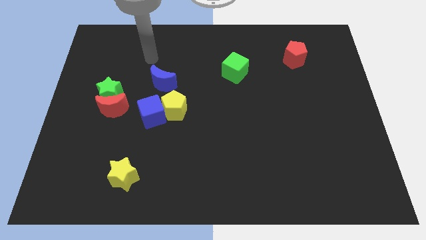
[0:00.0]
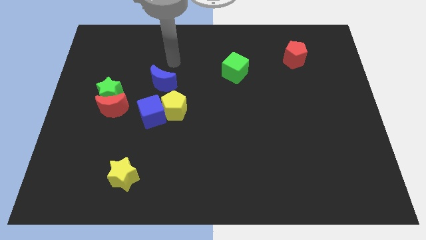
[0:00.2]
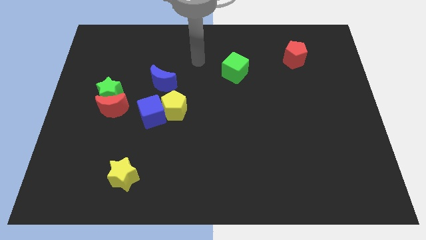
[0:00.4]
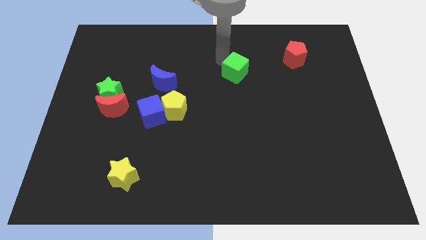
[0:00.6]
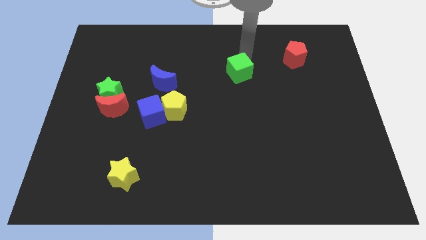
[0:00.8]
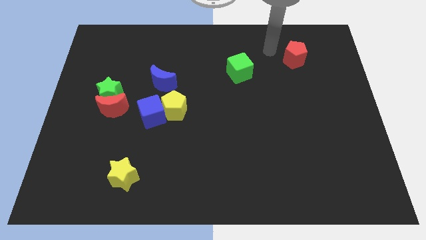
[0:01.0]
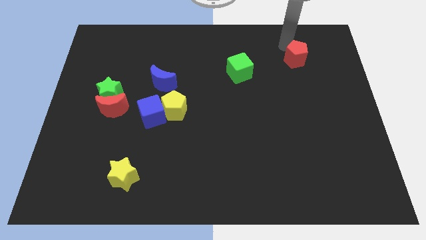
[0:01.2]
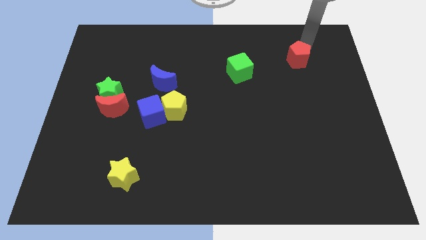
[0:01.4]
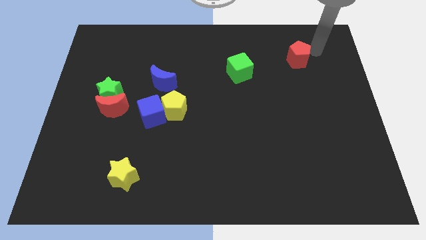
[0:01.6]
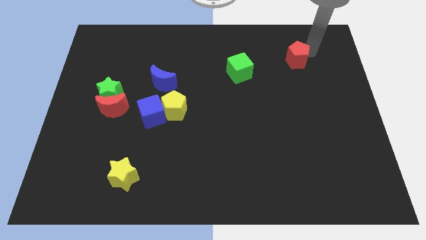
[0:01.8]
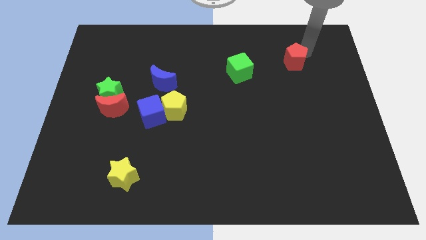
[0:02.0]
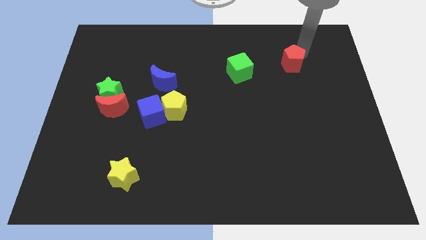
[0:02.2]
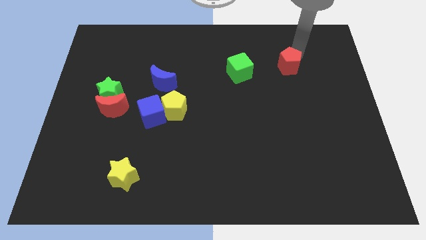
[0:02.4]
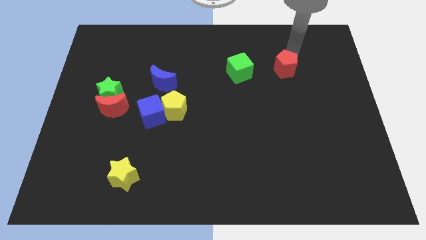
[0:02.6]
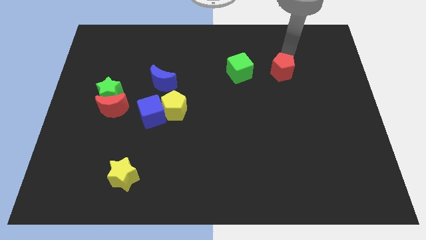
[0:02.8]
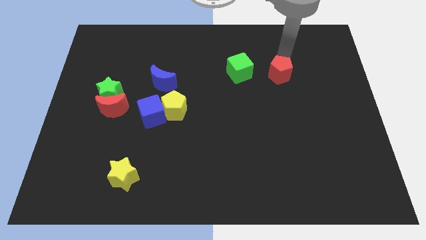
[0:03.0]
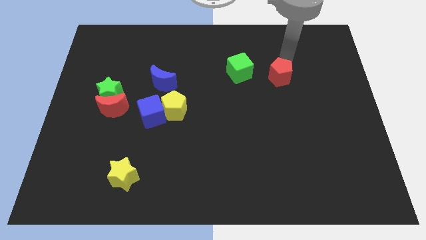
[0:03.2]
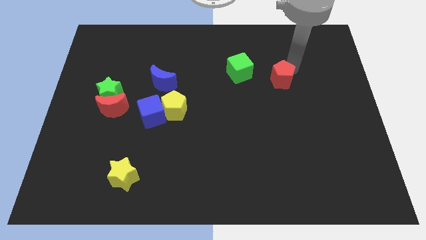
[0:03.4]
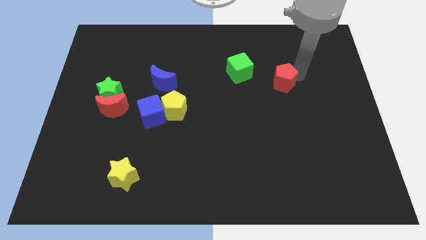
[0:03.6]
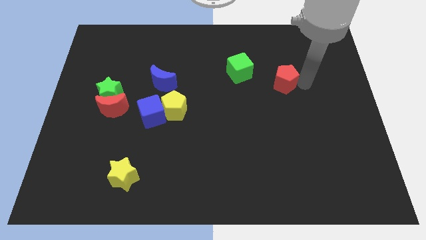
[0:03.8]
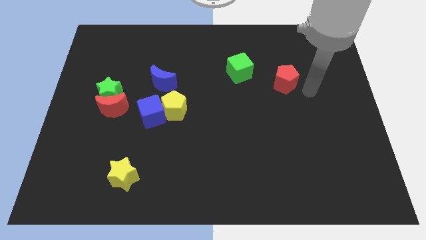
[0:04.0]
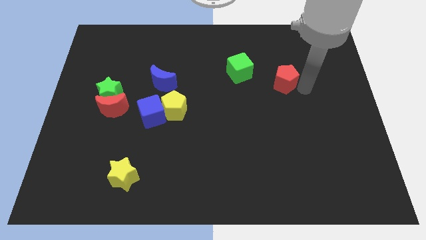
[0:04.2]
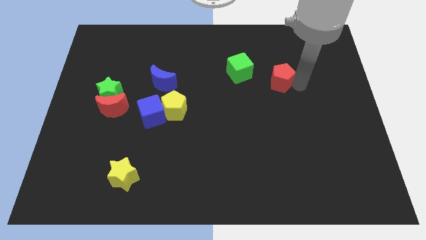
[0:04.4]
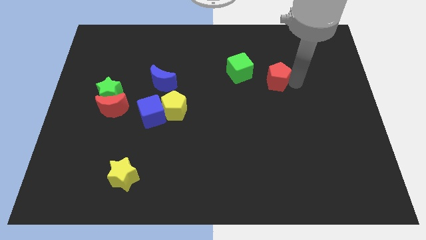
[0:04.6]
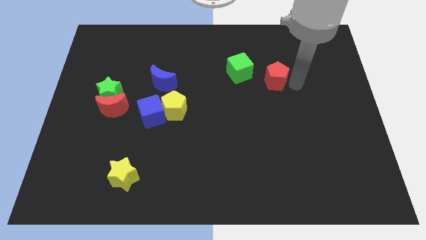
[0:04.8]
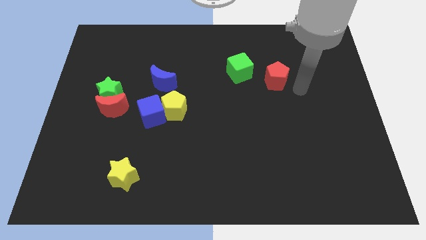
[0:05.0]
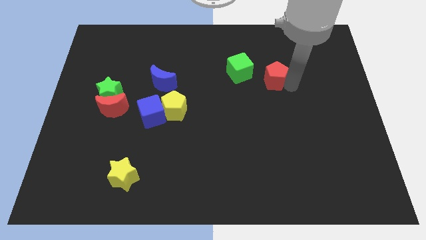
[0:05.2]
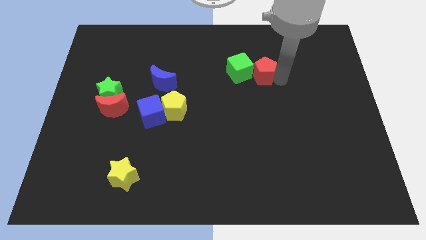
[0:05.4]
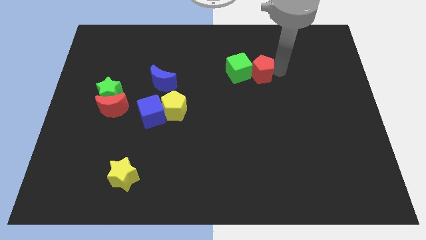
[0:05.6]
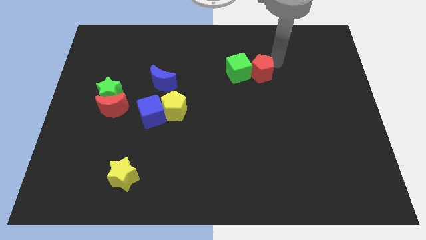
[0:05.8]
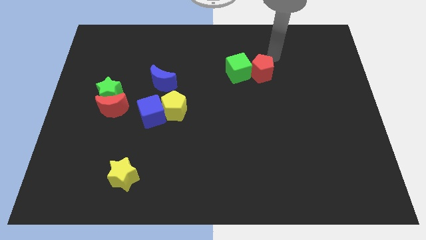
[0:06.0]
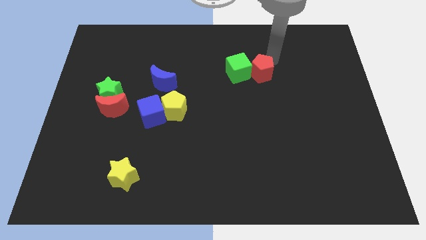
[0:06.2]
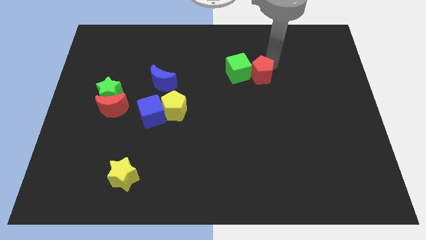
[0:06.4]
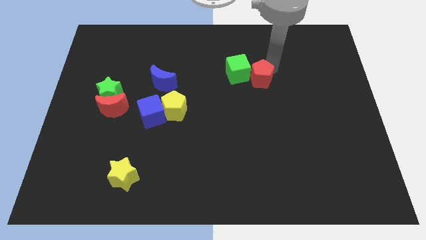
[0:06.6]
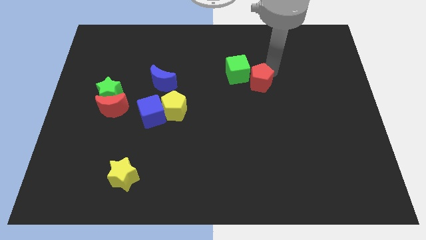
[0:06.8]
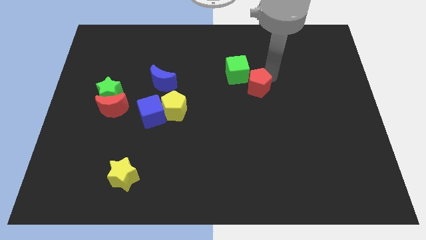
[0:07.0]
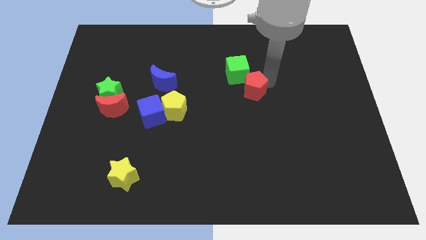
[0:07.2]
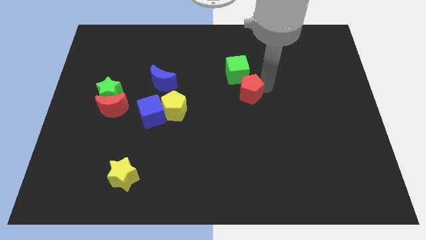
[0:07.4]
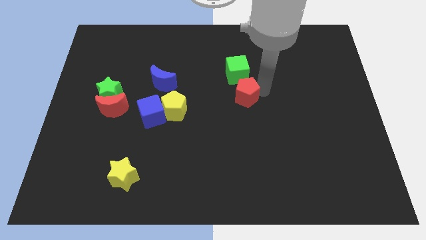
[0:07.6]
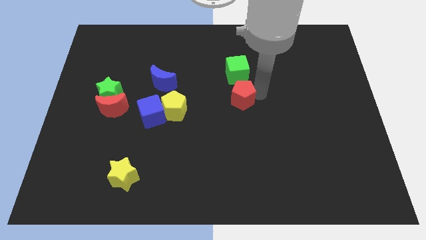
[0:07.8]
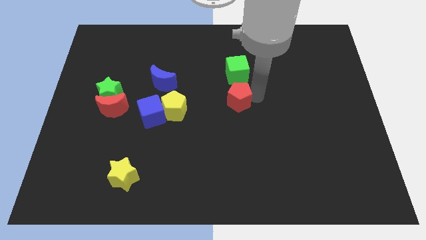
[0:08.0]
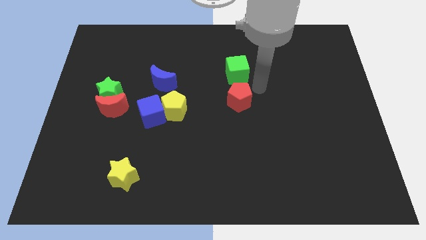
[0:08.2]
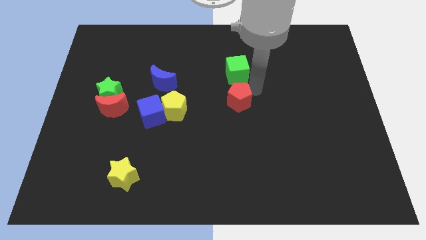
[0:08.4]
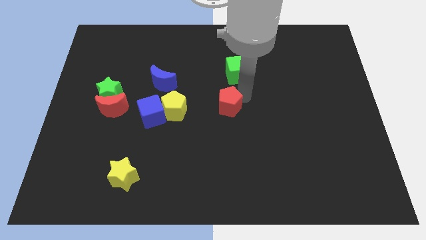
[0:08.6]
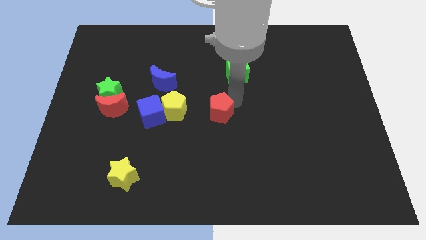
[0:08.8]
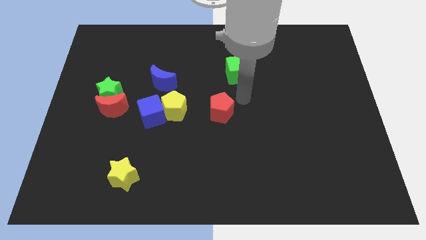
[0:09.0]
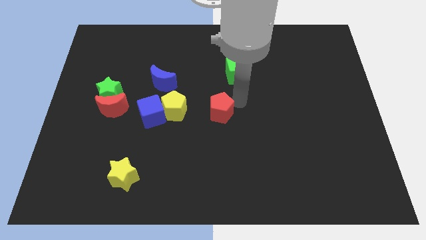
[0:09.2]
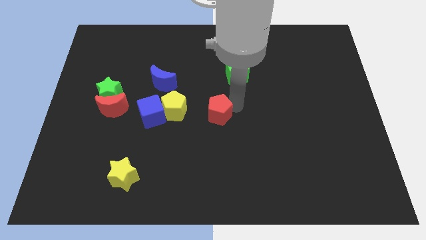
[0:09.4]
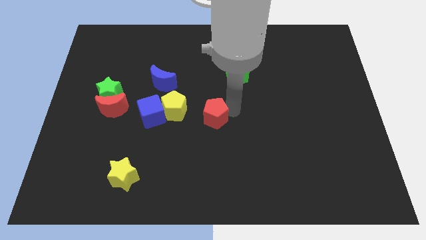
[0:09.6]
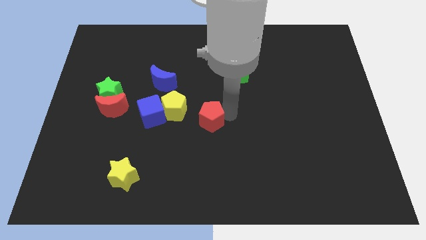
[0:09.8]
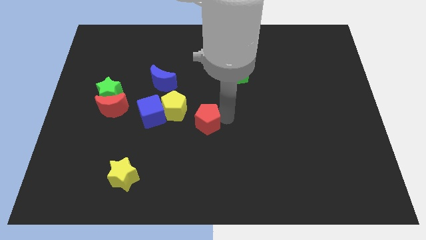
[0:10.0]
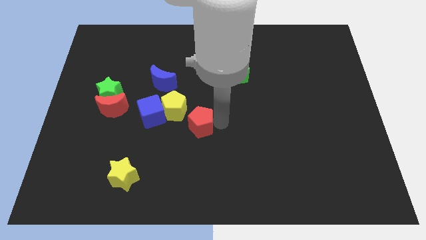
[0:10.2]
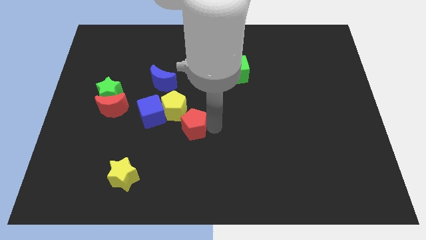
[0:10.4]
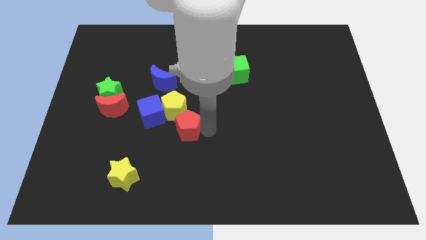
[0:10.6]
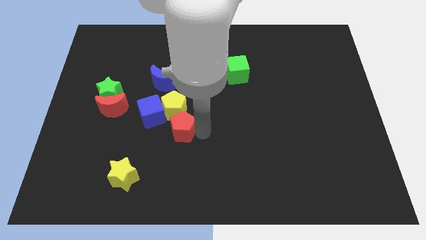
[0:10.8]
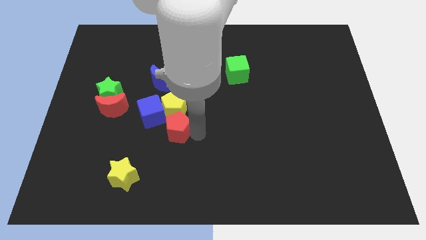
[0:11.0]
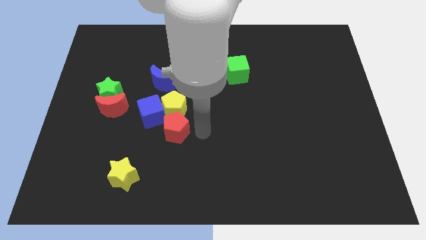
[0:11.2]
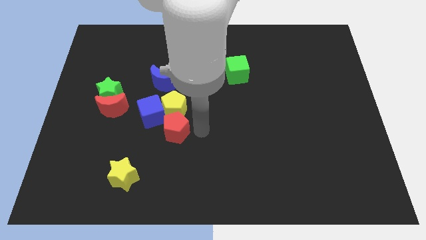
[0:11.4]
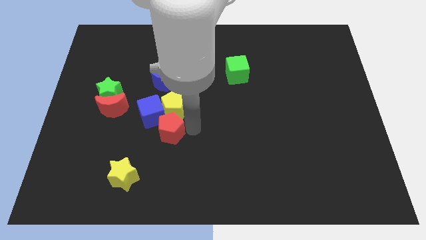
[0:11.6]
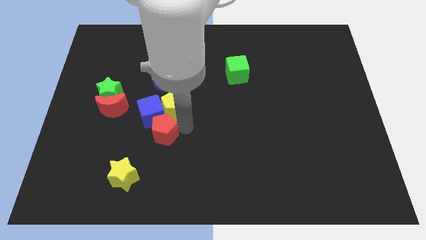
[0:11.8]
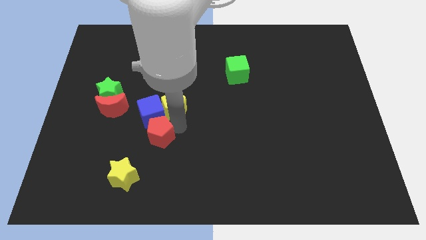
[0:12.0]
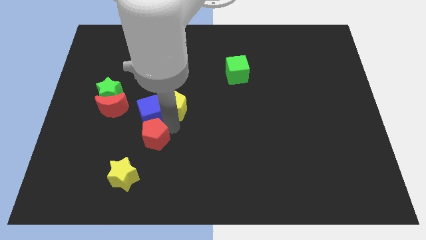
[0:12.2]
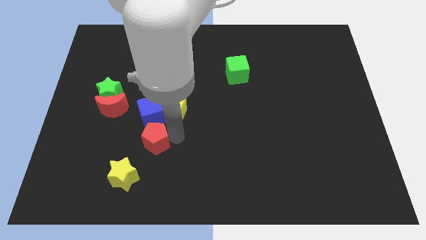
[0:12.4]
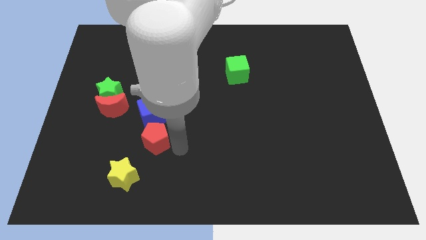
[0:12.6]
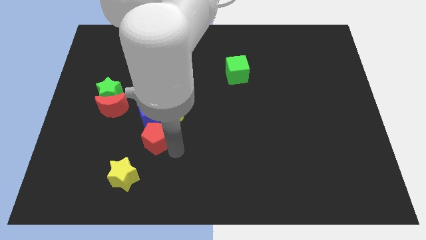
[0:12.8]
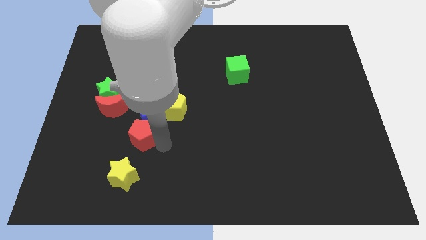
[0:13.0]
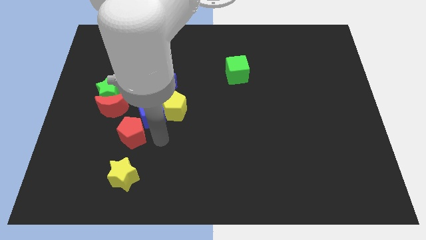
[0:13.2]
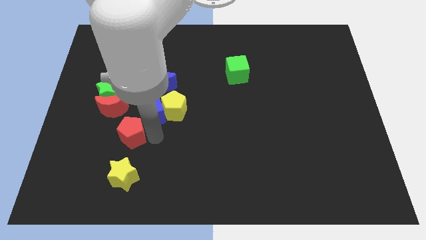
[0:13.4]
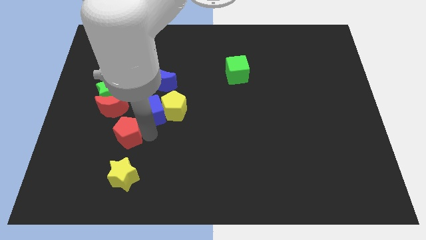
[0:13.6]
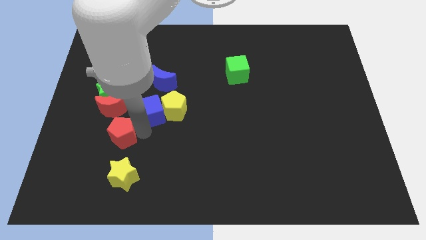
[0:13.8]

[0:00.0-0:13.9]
put the red pentagon below the green star

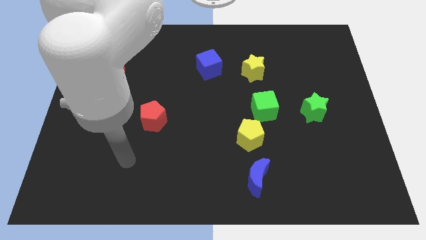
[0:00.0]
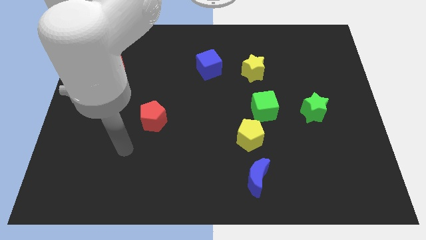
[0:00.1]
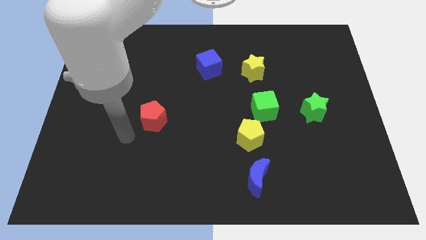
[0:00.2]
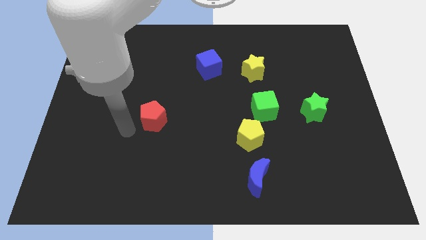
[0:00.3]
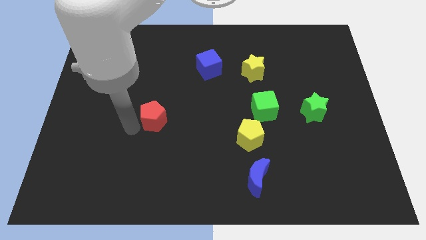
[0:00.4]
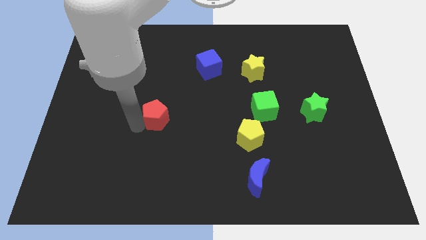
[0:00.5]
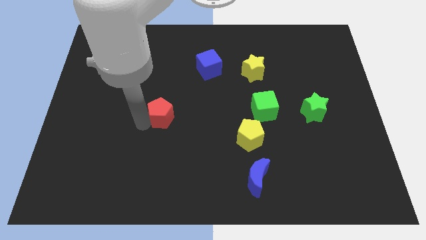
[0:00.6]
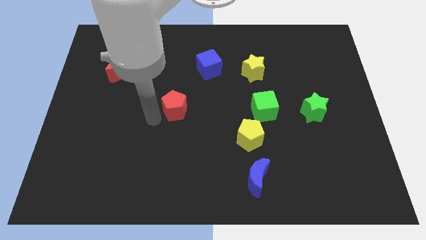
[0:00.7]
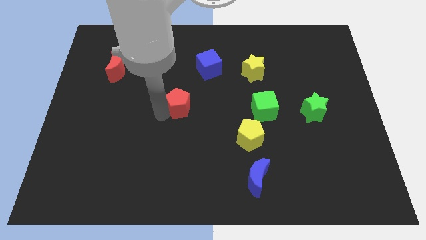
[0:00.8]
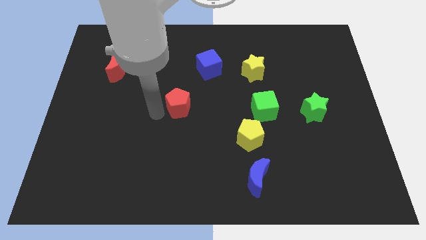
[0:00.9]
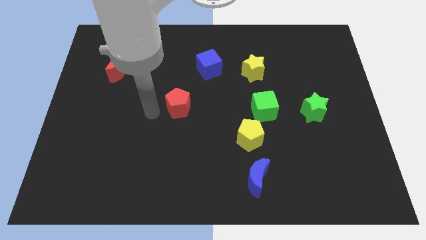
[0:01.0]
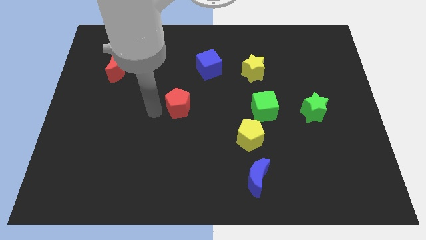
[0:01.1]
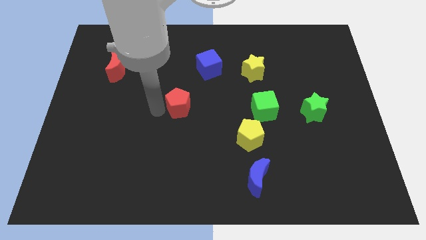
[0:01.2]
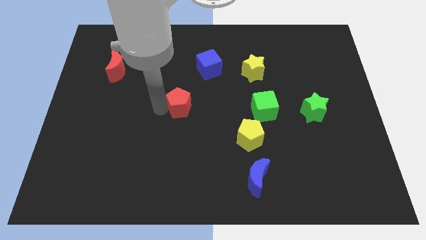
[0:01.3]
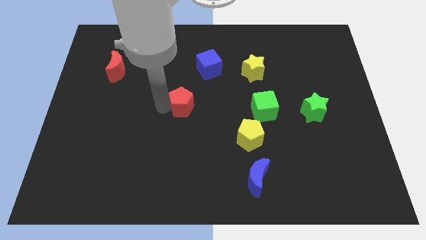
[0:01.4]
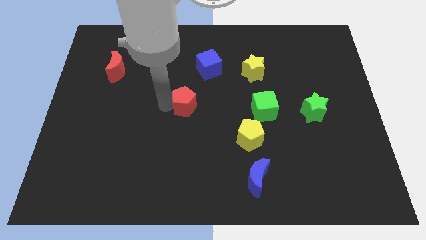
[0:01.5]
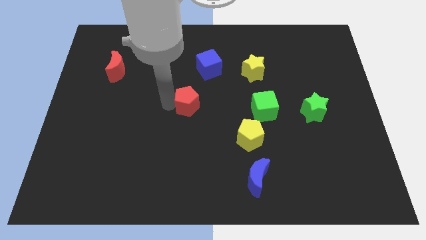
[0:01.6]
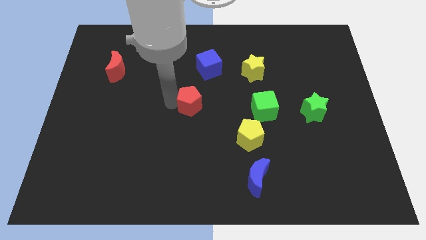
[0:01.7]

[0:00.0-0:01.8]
put the red pentagon to the bottom of the blue cube
